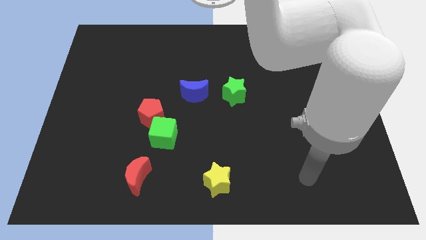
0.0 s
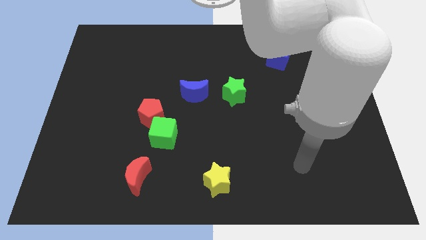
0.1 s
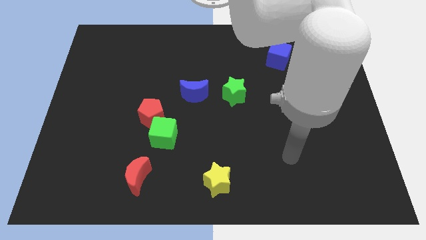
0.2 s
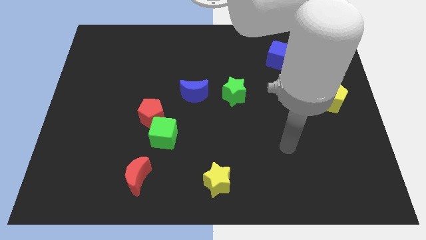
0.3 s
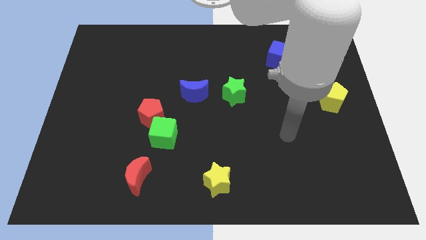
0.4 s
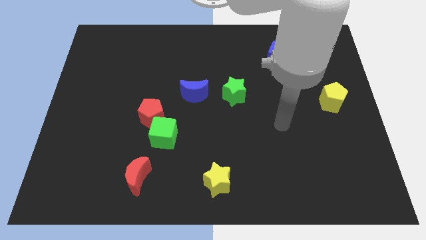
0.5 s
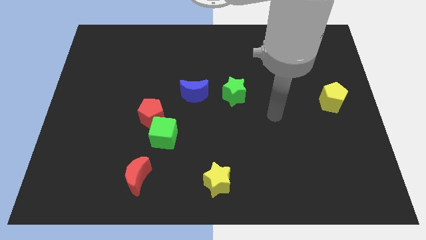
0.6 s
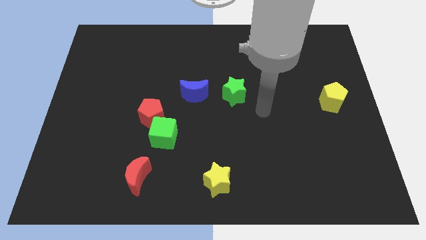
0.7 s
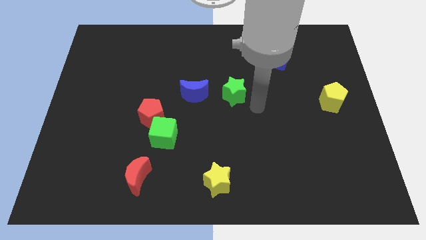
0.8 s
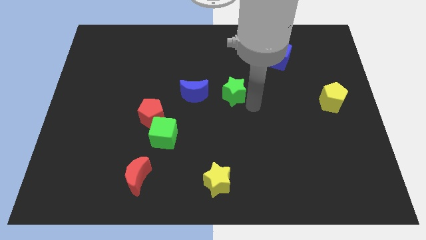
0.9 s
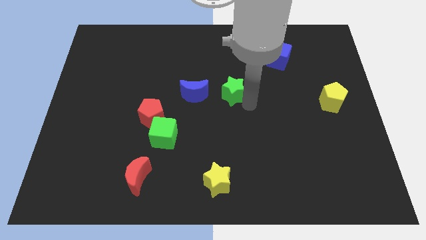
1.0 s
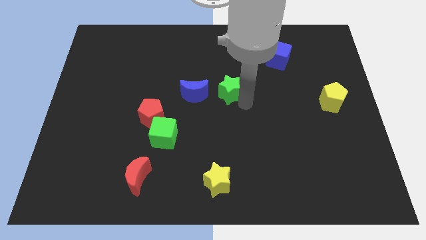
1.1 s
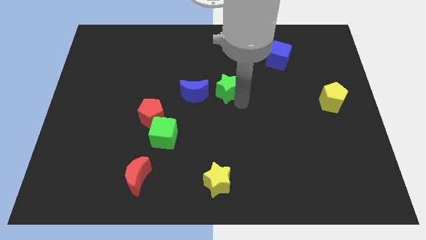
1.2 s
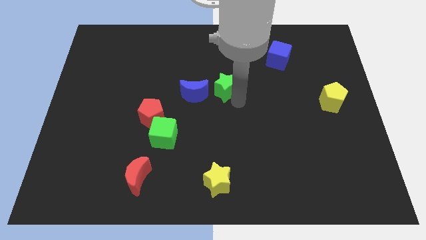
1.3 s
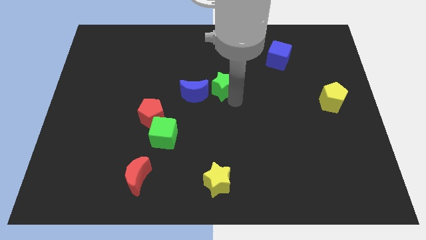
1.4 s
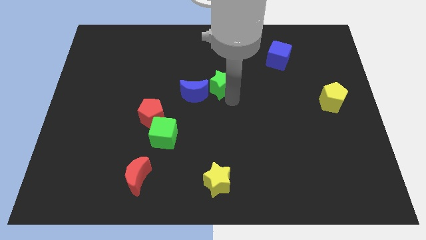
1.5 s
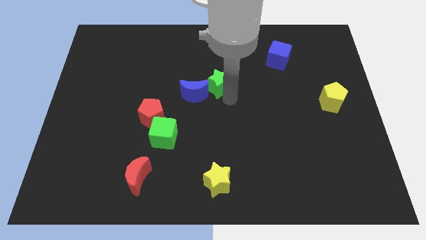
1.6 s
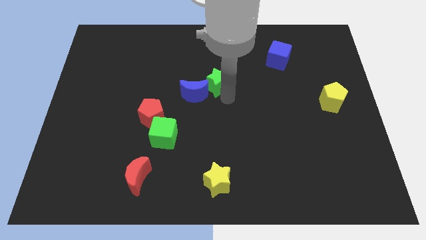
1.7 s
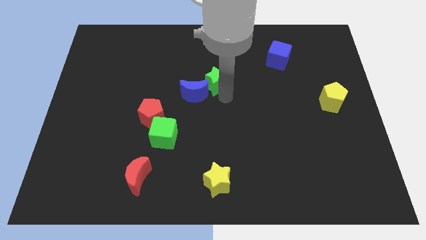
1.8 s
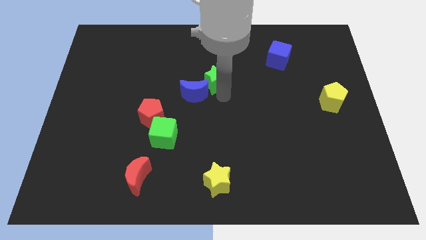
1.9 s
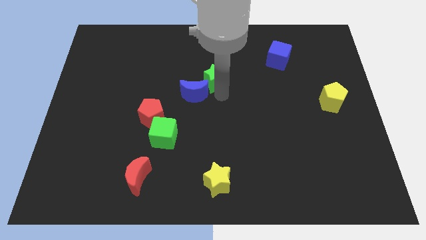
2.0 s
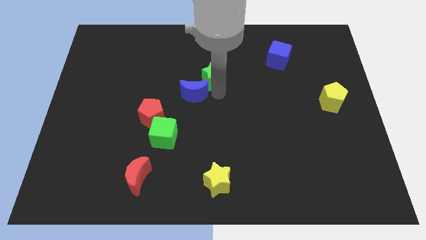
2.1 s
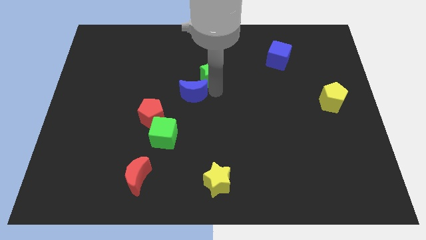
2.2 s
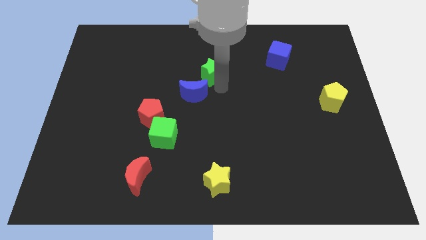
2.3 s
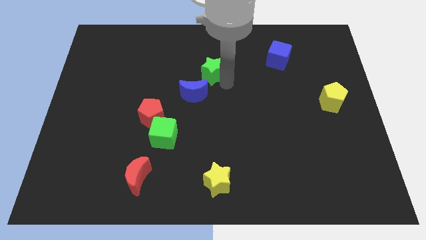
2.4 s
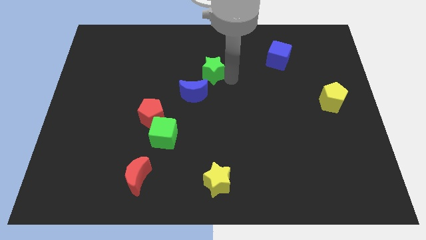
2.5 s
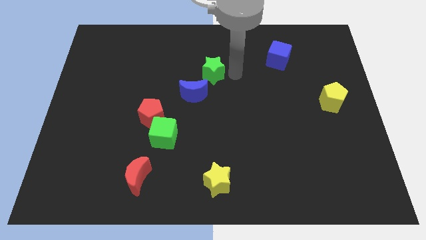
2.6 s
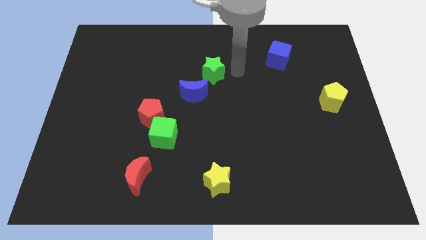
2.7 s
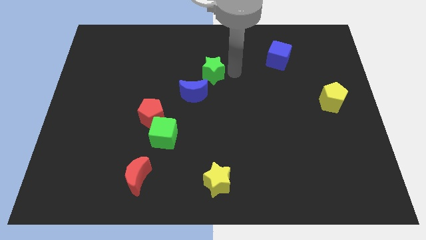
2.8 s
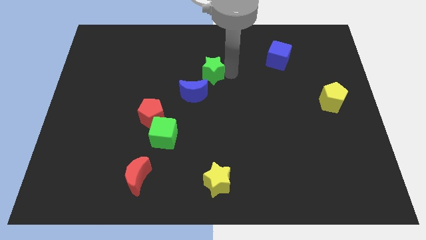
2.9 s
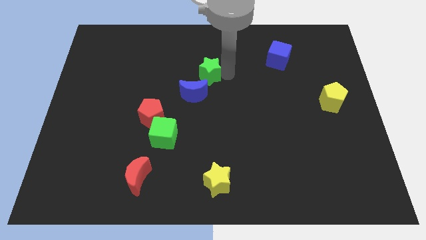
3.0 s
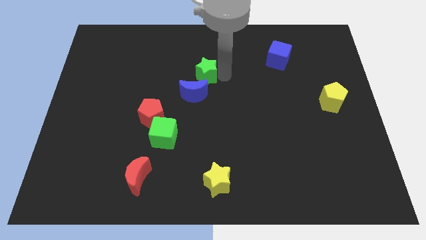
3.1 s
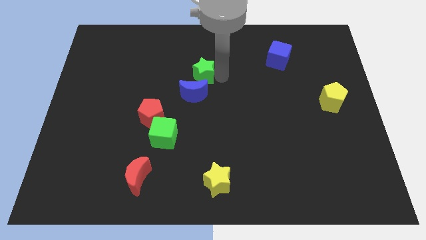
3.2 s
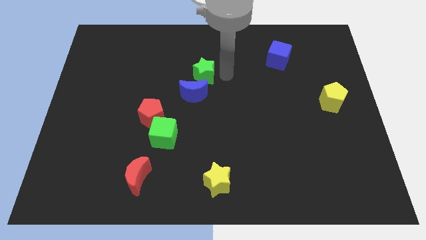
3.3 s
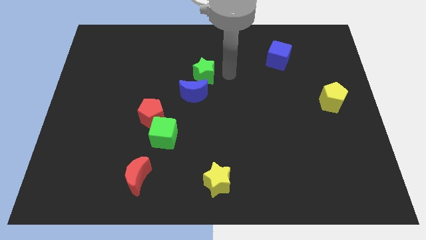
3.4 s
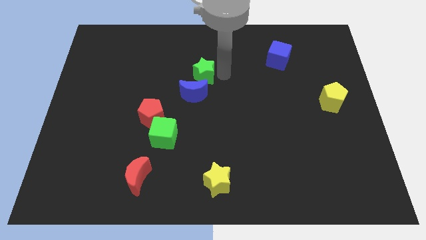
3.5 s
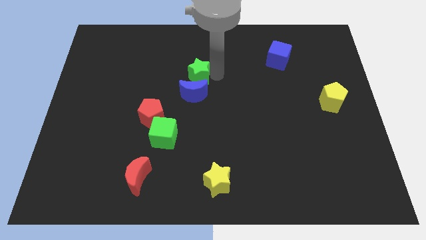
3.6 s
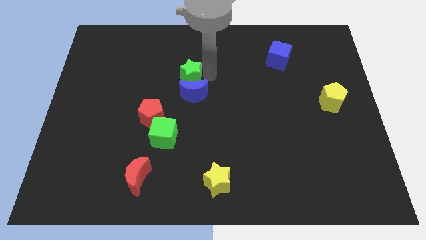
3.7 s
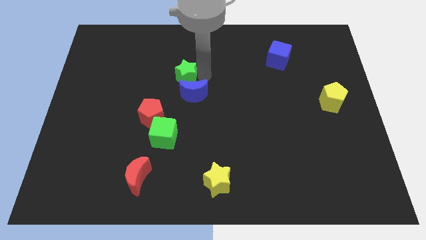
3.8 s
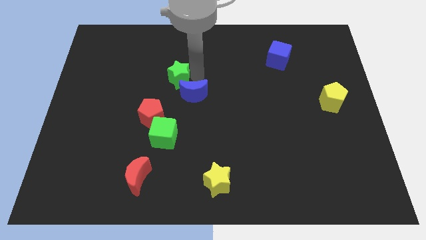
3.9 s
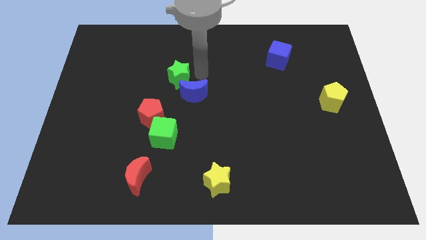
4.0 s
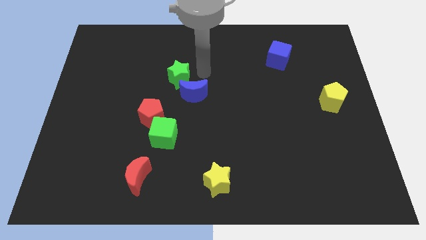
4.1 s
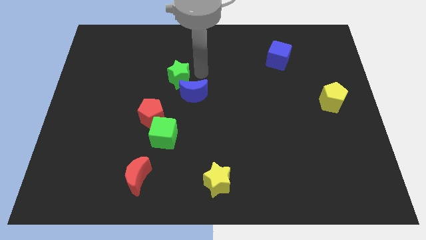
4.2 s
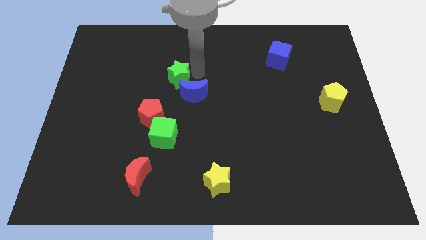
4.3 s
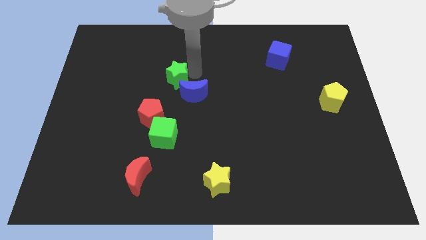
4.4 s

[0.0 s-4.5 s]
move the green star to the top of the red pentagon

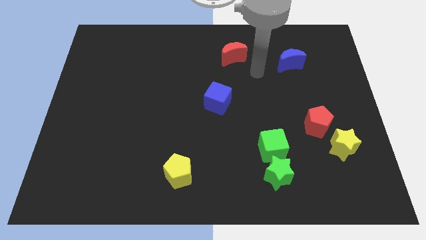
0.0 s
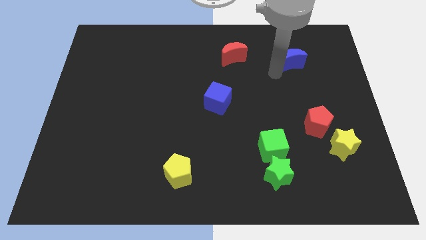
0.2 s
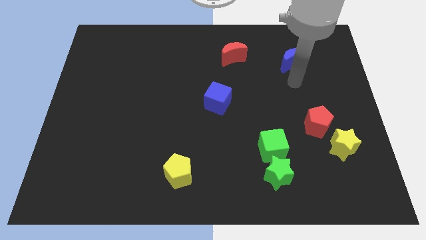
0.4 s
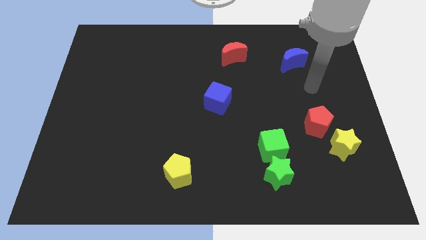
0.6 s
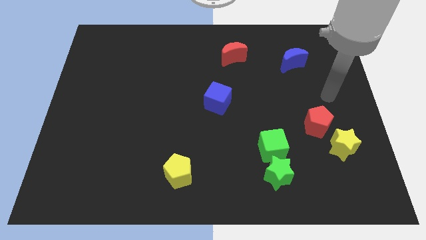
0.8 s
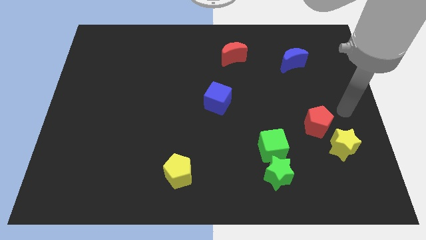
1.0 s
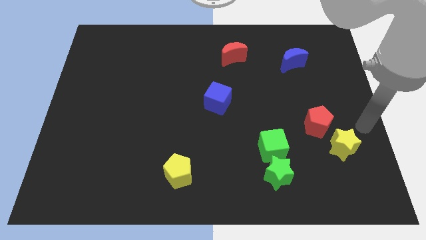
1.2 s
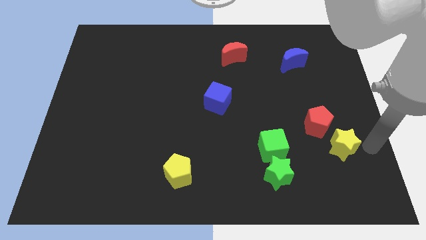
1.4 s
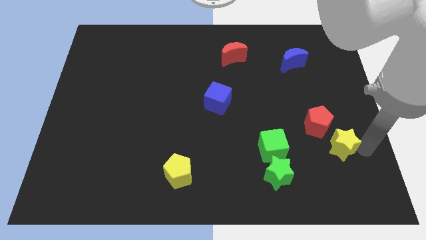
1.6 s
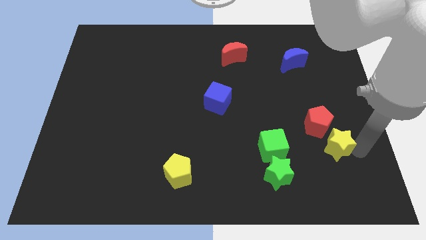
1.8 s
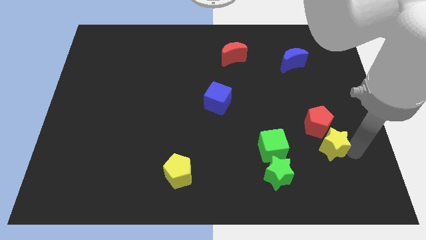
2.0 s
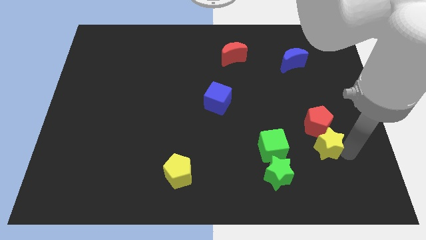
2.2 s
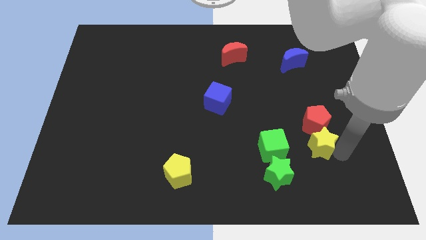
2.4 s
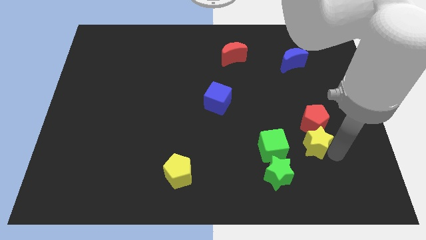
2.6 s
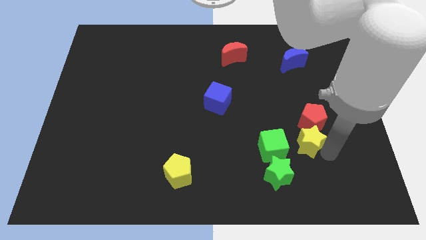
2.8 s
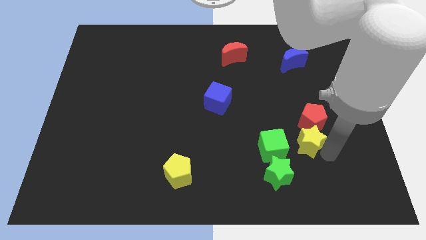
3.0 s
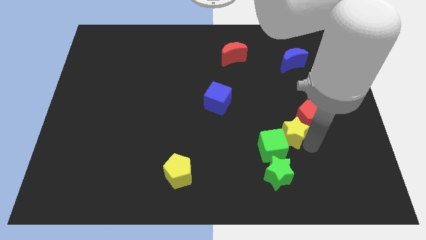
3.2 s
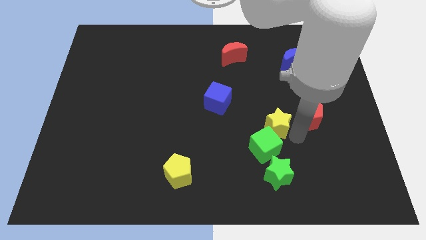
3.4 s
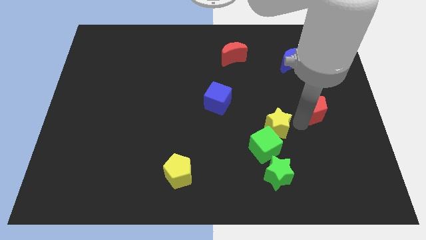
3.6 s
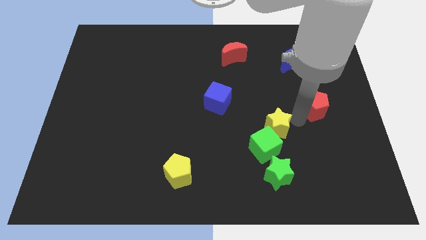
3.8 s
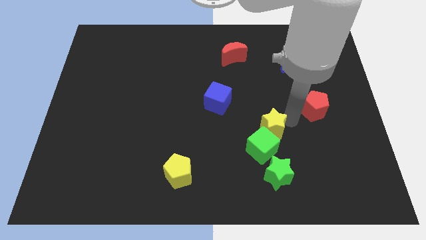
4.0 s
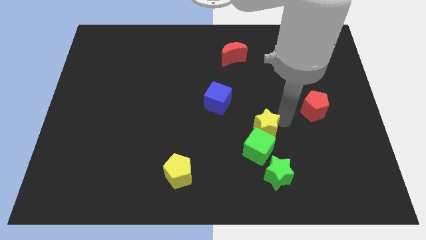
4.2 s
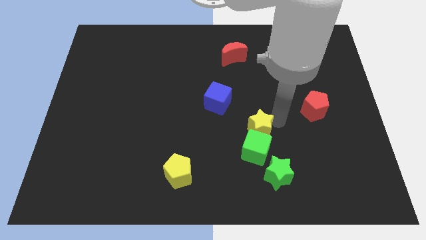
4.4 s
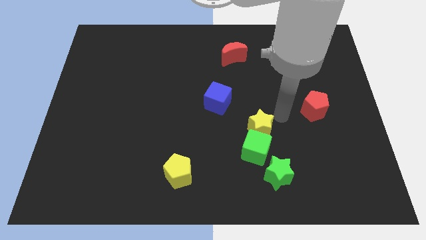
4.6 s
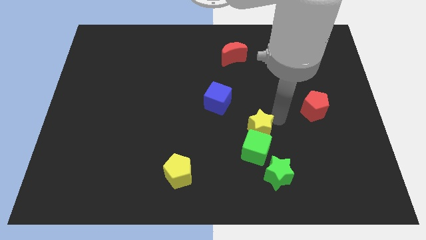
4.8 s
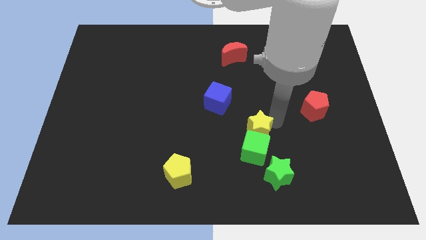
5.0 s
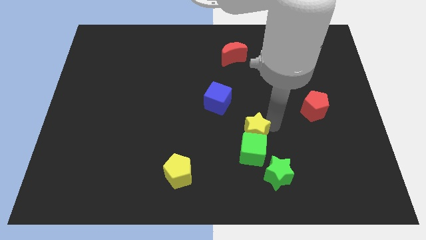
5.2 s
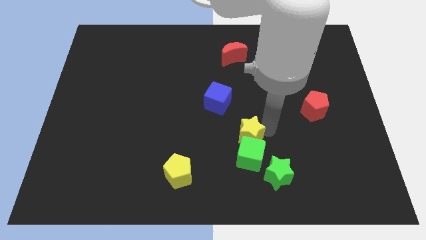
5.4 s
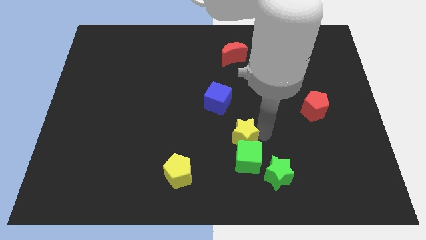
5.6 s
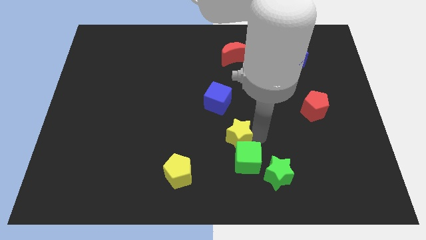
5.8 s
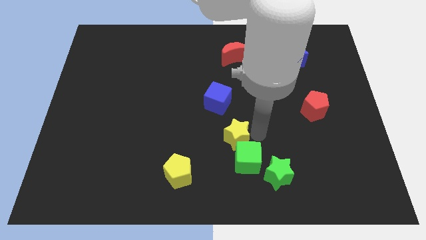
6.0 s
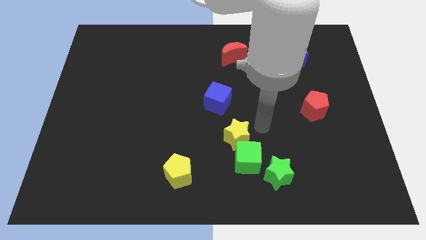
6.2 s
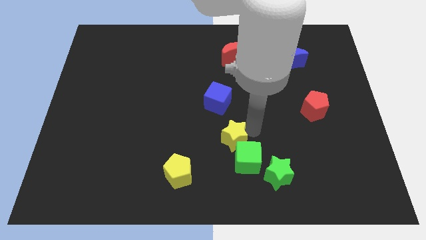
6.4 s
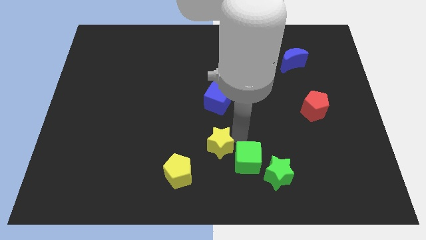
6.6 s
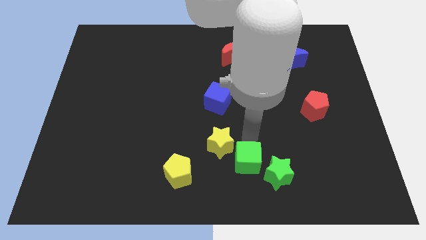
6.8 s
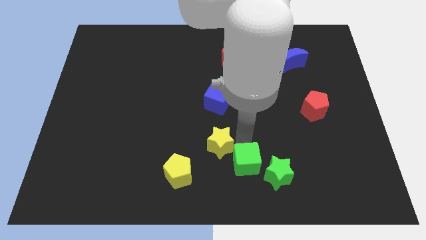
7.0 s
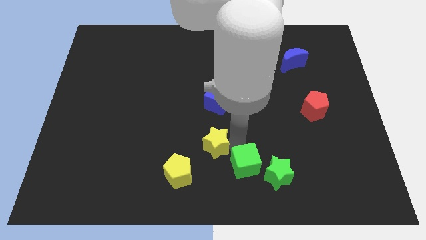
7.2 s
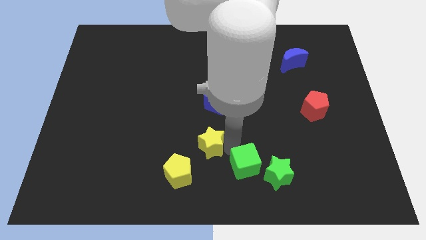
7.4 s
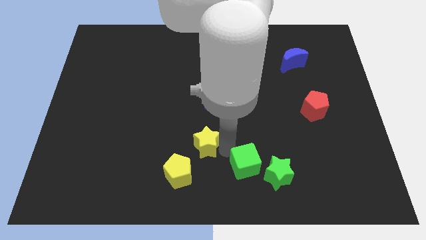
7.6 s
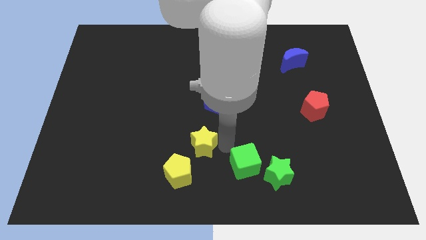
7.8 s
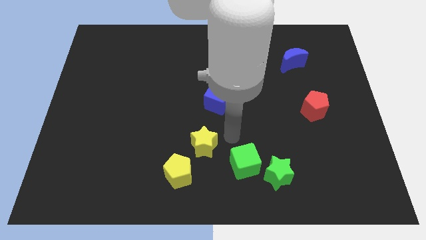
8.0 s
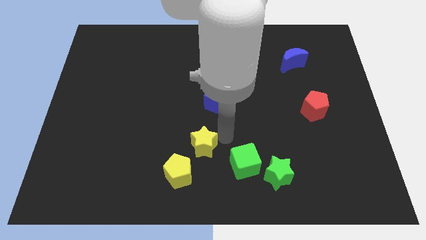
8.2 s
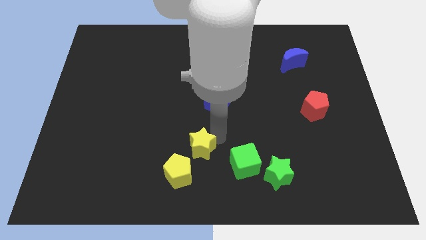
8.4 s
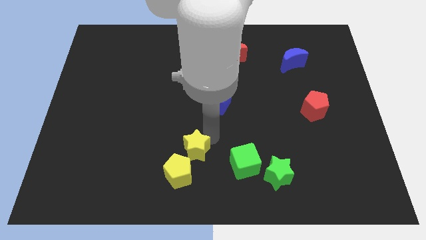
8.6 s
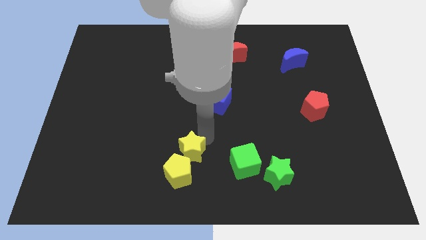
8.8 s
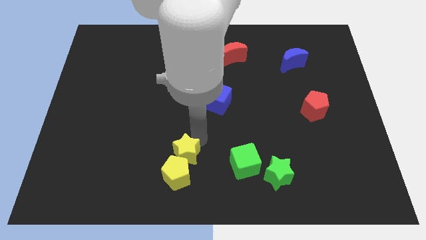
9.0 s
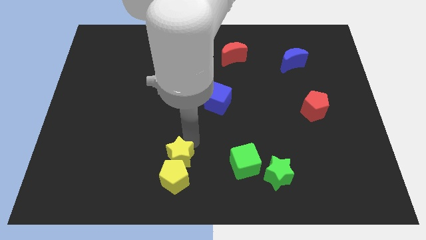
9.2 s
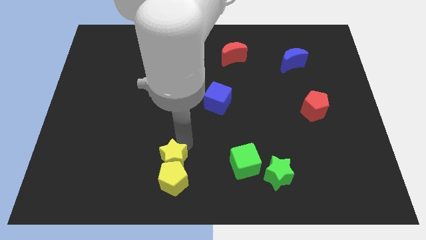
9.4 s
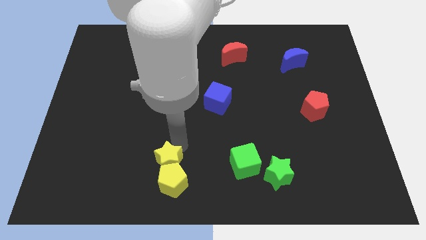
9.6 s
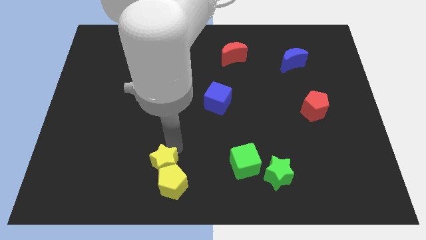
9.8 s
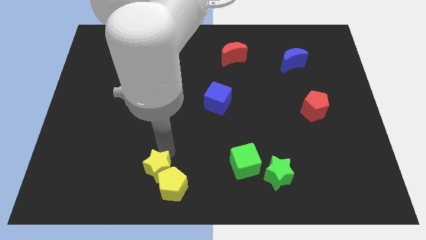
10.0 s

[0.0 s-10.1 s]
move the yellow star to the left side of the yellow pentagon
